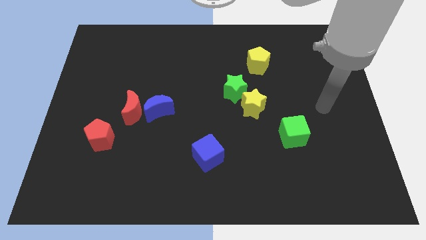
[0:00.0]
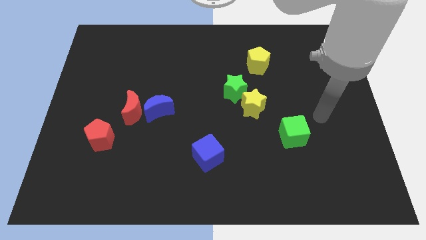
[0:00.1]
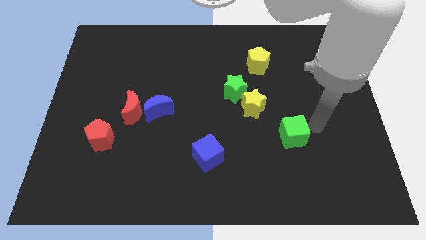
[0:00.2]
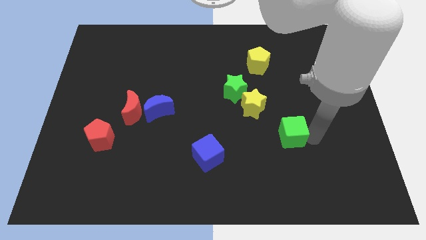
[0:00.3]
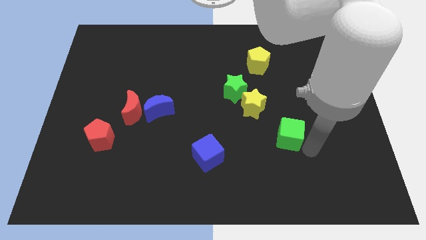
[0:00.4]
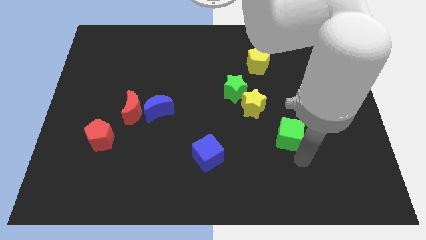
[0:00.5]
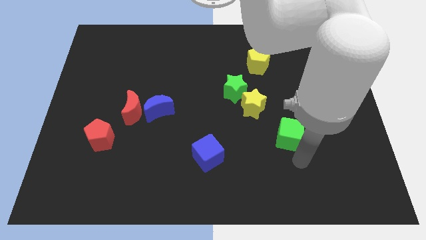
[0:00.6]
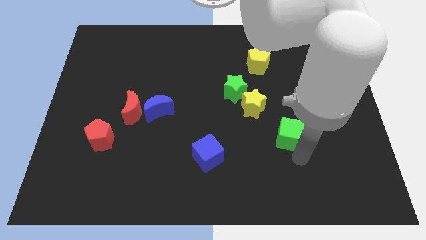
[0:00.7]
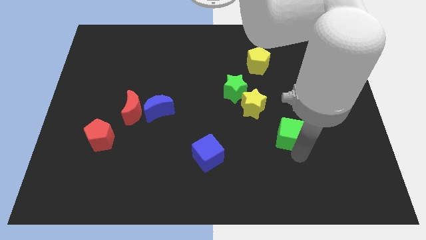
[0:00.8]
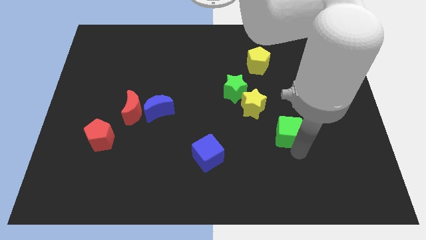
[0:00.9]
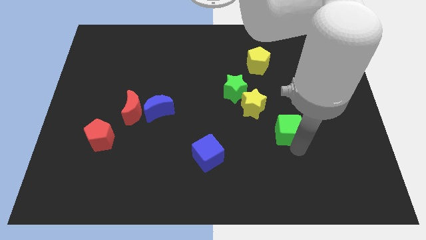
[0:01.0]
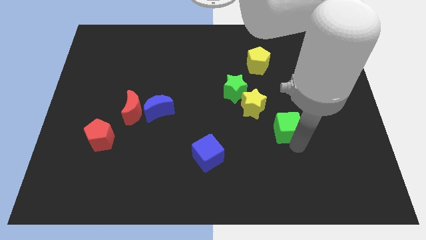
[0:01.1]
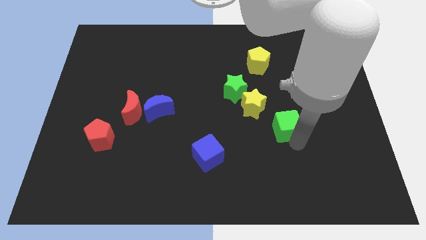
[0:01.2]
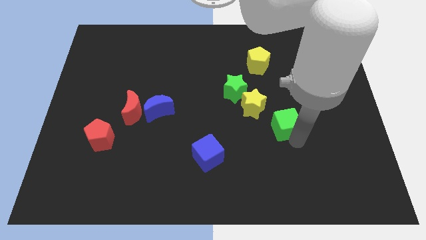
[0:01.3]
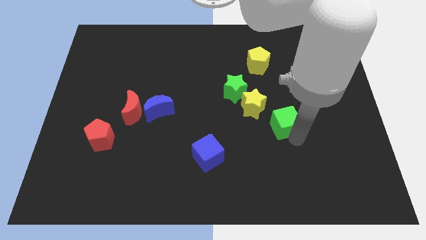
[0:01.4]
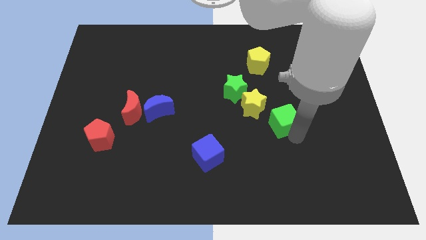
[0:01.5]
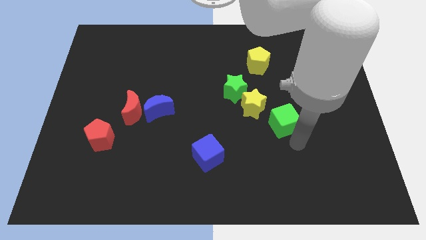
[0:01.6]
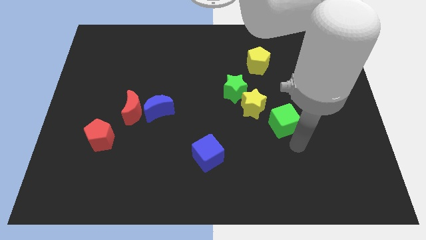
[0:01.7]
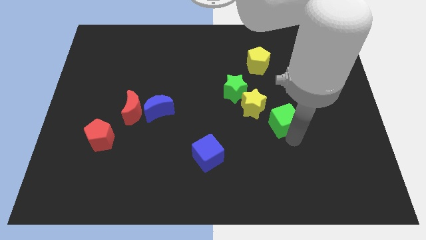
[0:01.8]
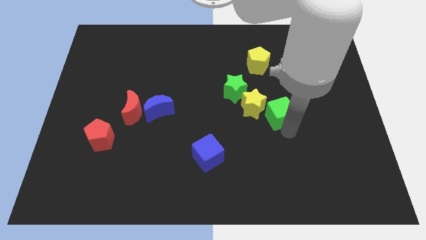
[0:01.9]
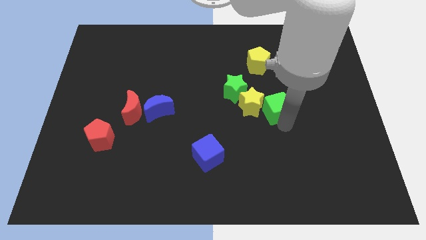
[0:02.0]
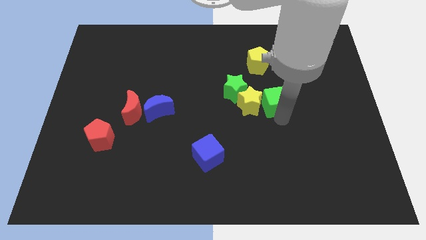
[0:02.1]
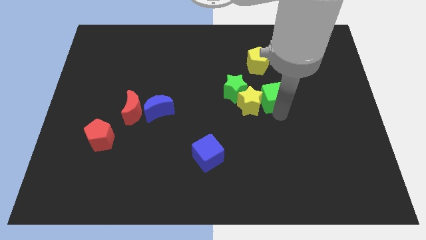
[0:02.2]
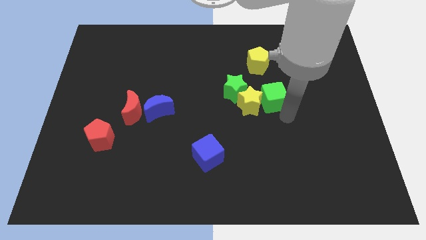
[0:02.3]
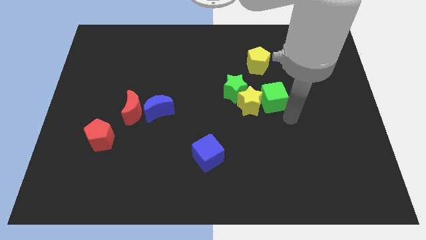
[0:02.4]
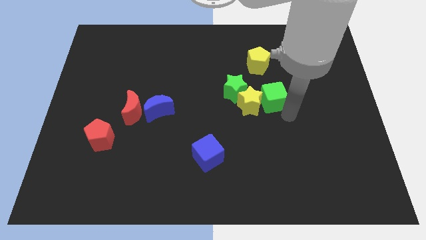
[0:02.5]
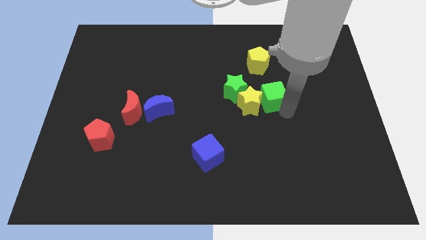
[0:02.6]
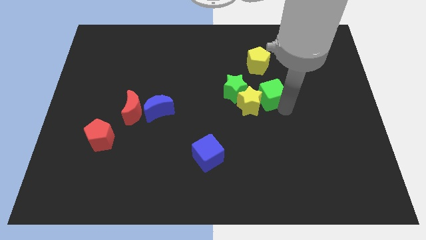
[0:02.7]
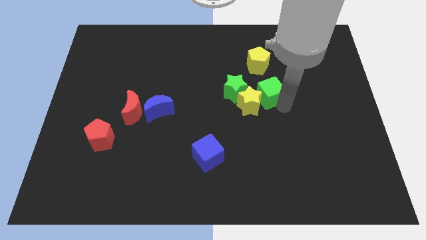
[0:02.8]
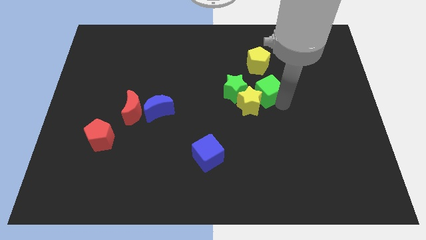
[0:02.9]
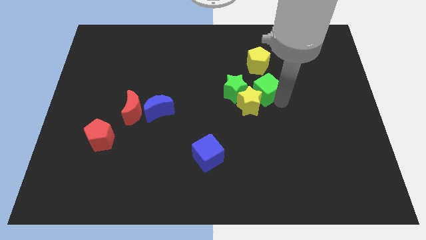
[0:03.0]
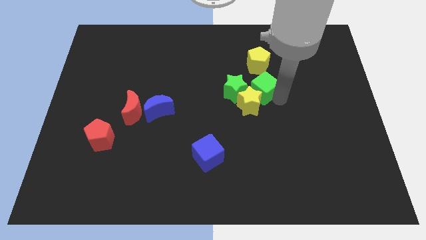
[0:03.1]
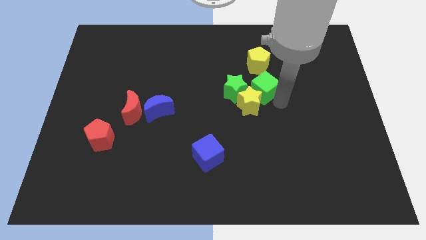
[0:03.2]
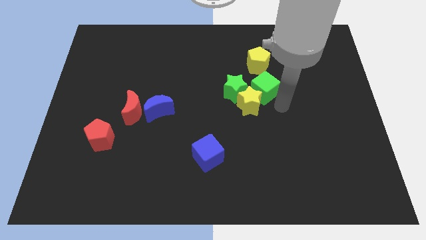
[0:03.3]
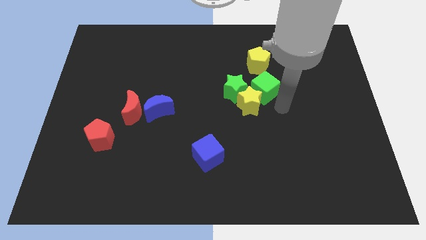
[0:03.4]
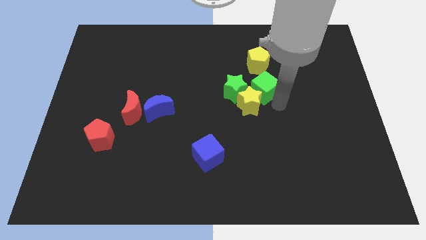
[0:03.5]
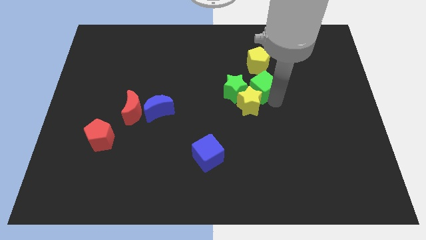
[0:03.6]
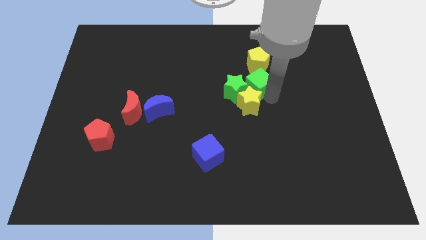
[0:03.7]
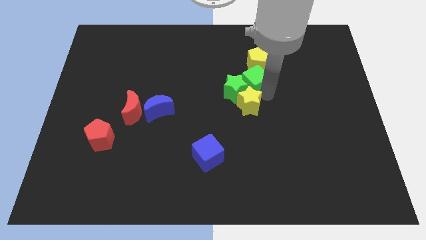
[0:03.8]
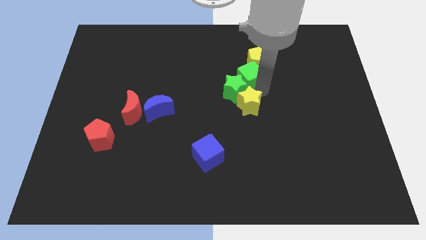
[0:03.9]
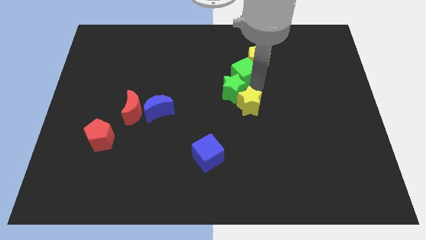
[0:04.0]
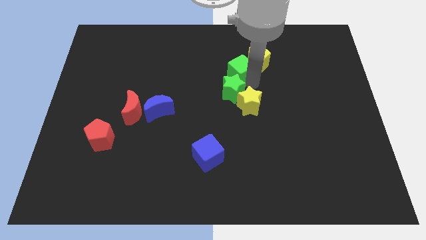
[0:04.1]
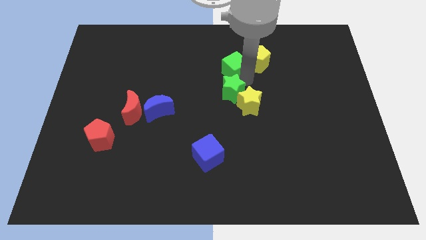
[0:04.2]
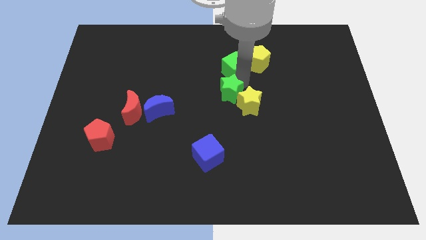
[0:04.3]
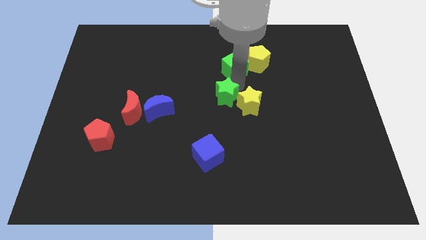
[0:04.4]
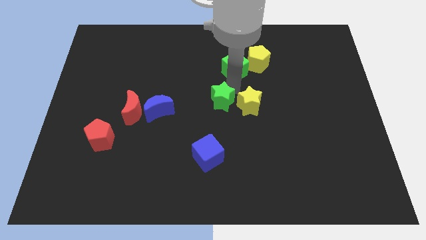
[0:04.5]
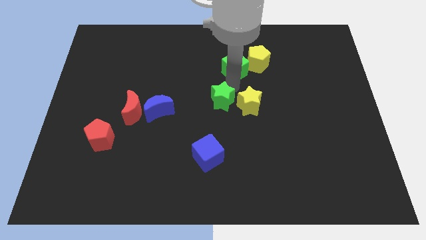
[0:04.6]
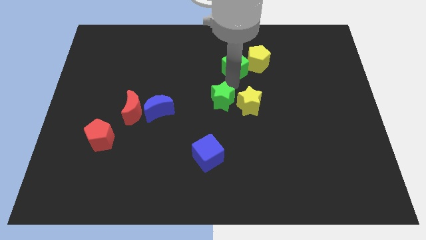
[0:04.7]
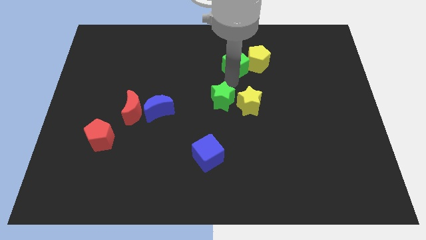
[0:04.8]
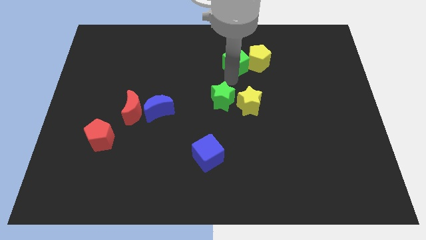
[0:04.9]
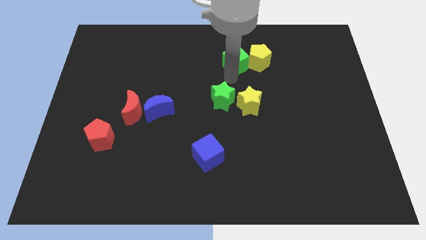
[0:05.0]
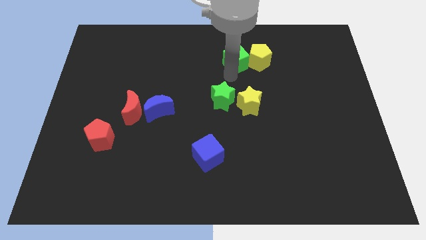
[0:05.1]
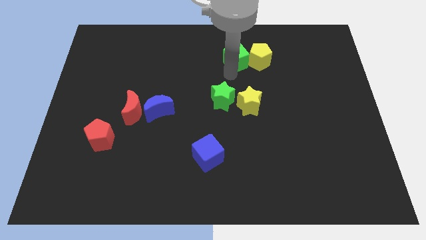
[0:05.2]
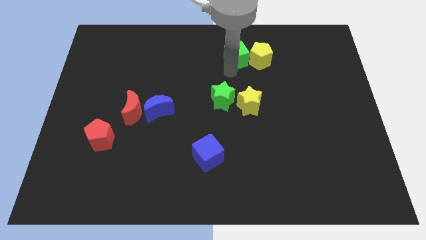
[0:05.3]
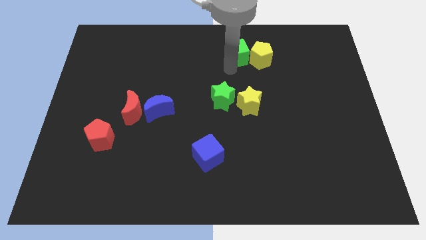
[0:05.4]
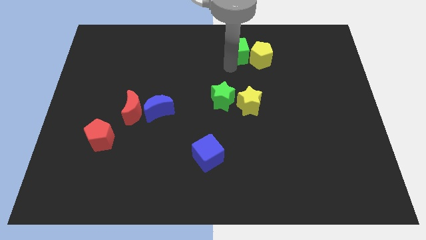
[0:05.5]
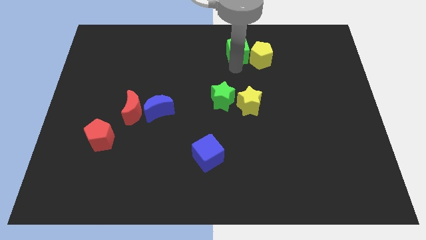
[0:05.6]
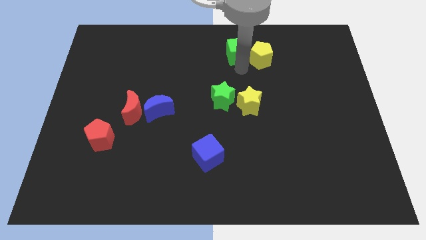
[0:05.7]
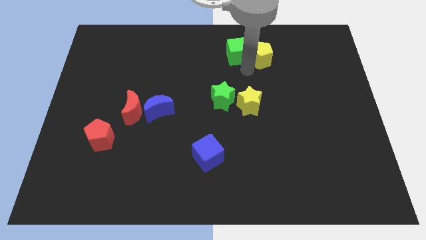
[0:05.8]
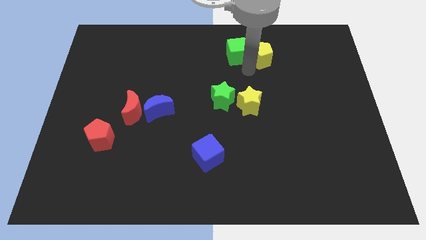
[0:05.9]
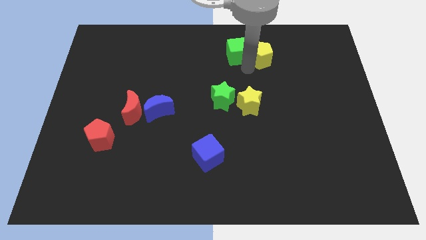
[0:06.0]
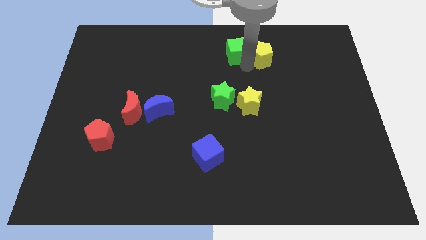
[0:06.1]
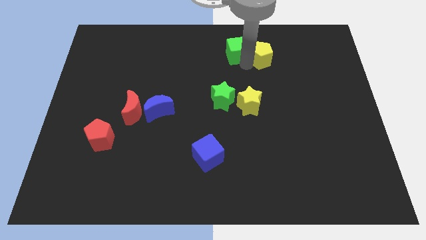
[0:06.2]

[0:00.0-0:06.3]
put the green cube to the top side
